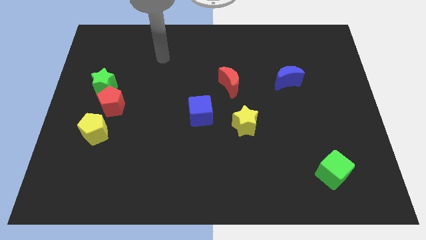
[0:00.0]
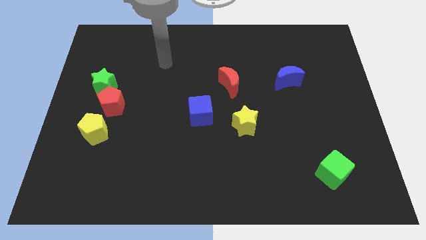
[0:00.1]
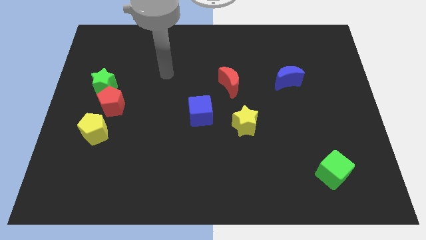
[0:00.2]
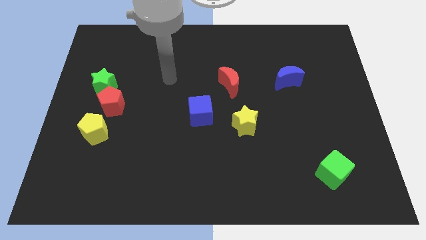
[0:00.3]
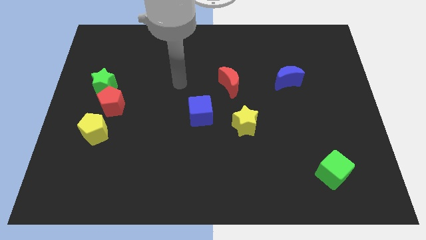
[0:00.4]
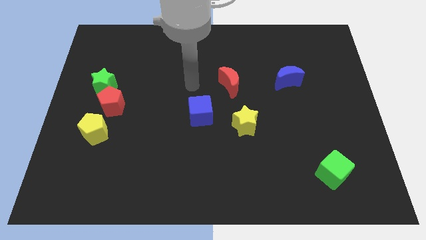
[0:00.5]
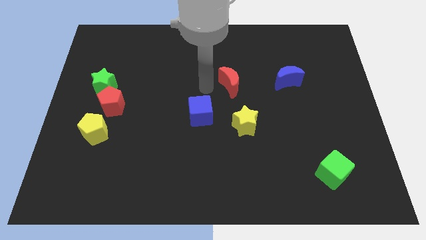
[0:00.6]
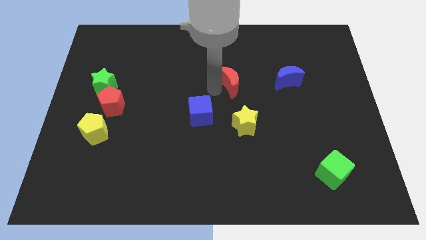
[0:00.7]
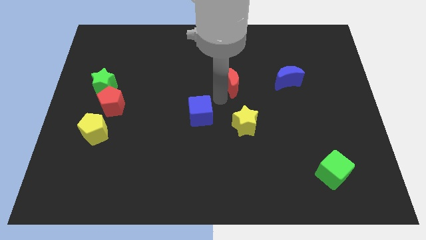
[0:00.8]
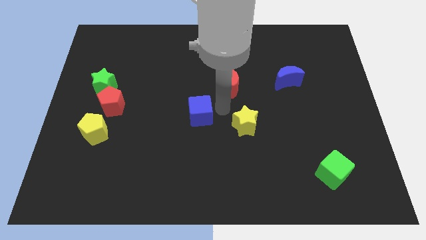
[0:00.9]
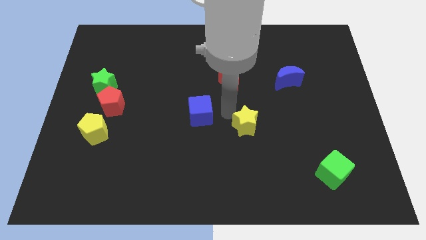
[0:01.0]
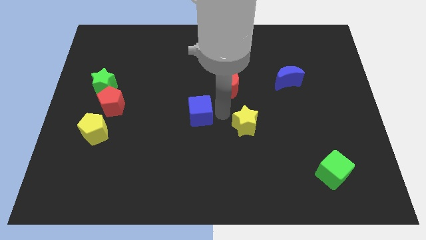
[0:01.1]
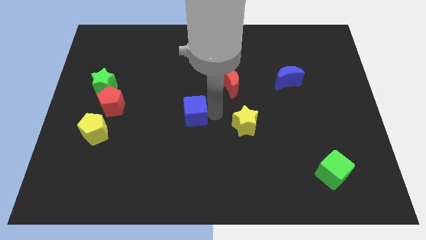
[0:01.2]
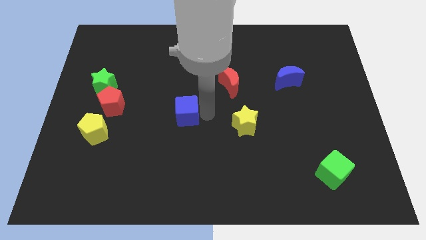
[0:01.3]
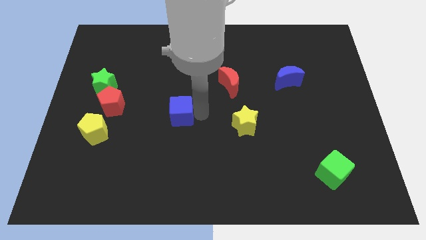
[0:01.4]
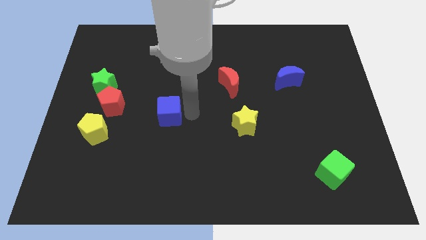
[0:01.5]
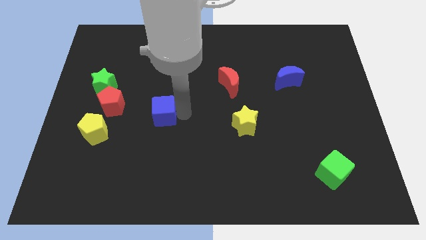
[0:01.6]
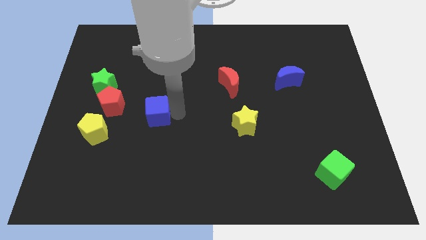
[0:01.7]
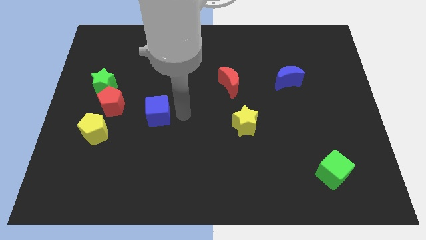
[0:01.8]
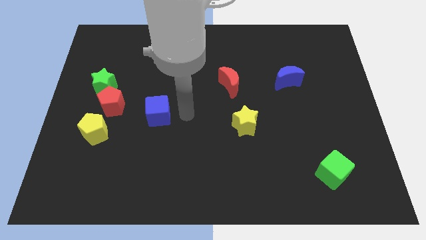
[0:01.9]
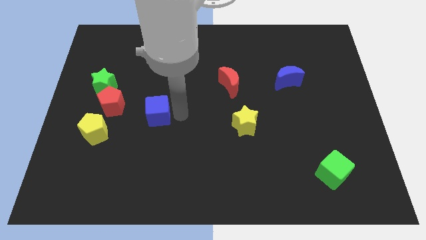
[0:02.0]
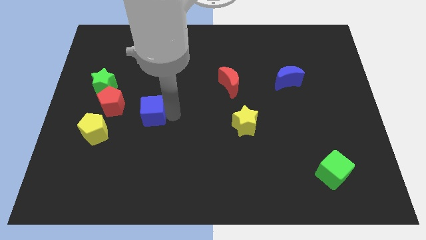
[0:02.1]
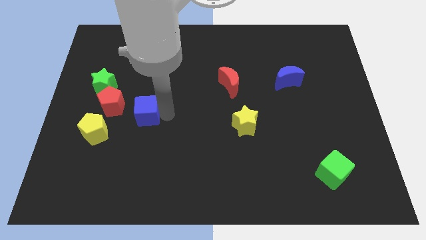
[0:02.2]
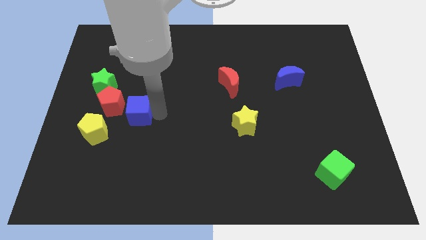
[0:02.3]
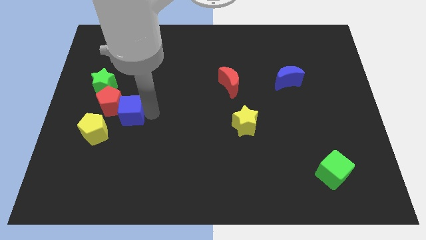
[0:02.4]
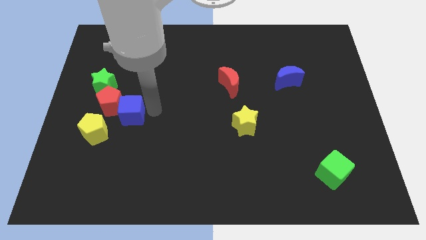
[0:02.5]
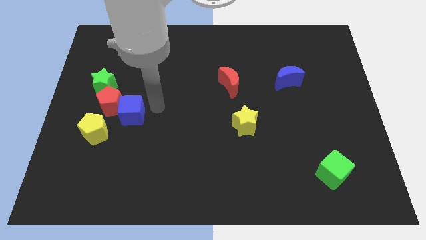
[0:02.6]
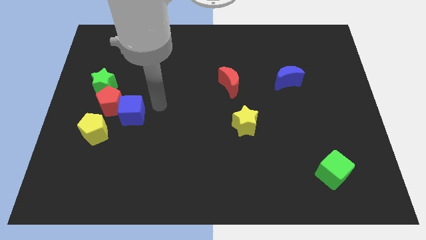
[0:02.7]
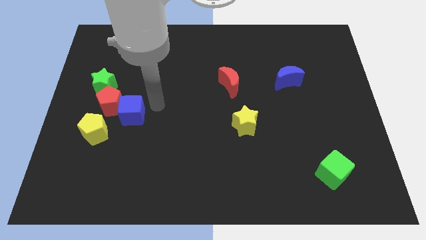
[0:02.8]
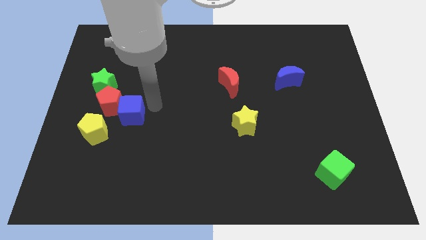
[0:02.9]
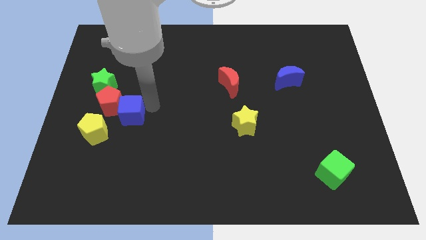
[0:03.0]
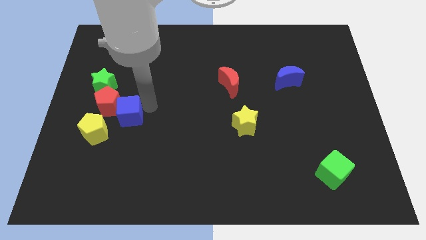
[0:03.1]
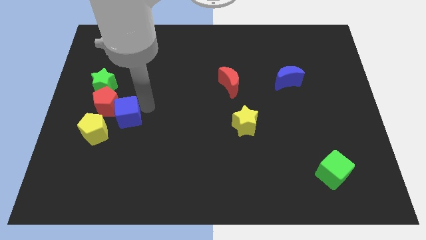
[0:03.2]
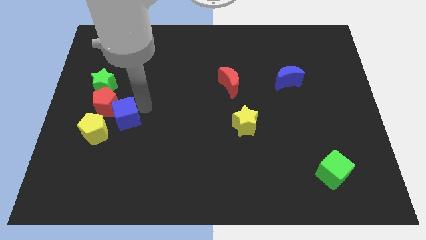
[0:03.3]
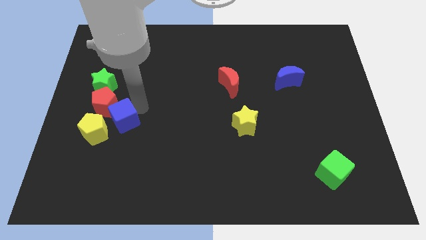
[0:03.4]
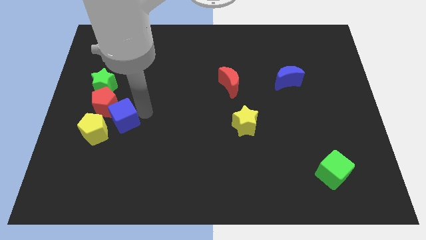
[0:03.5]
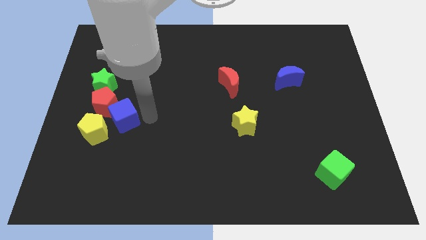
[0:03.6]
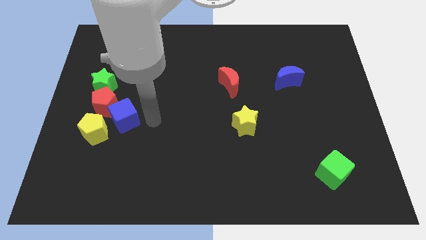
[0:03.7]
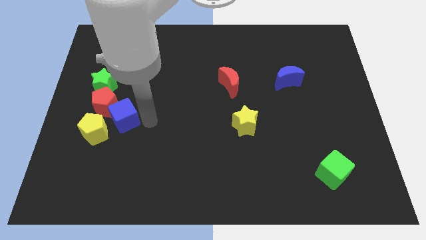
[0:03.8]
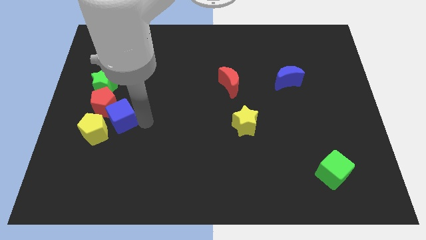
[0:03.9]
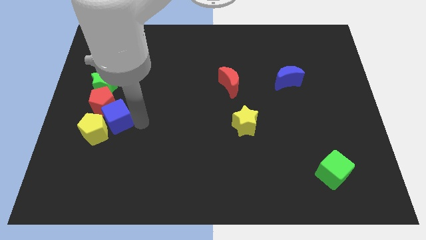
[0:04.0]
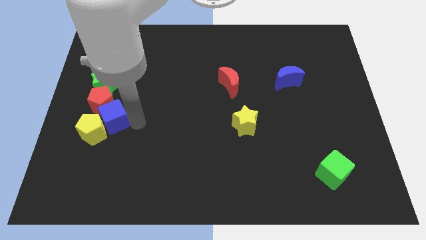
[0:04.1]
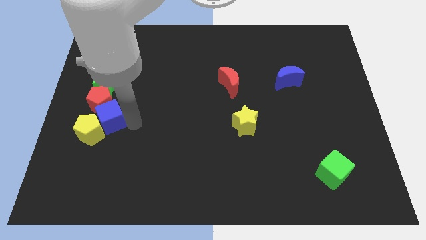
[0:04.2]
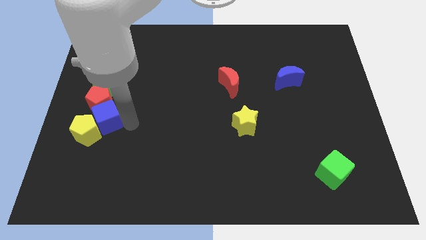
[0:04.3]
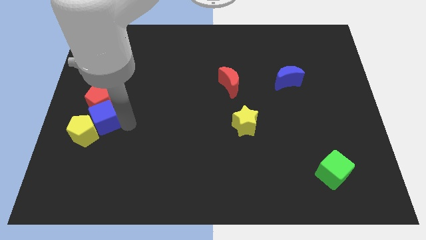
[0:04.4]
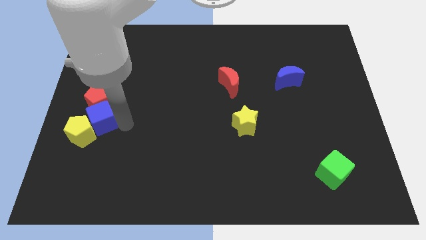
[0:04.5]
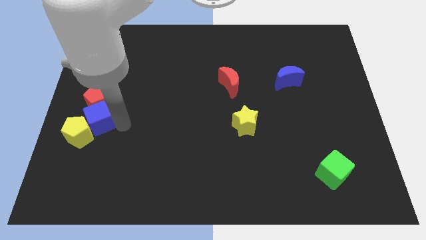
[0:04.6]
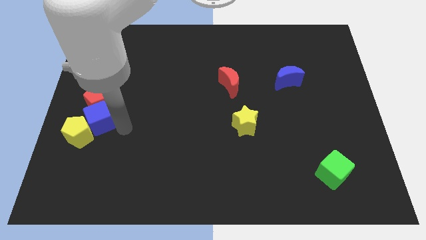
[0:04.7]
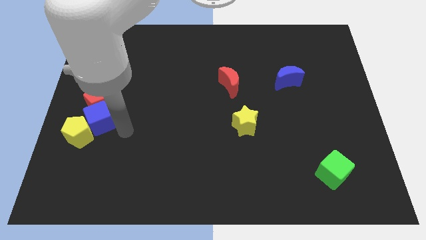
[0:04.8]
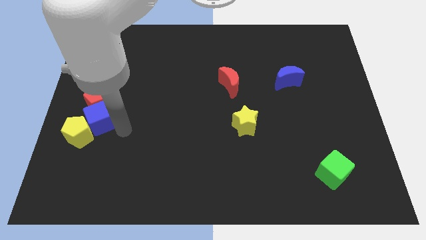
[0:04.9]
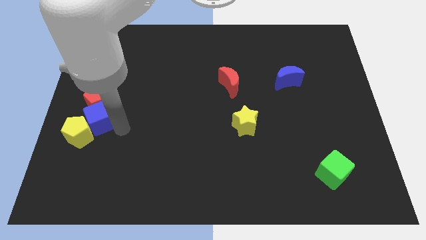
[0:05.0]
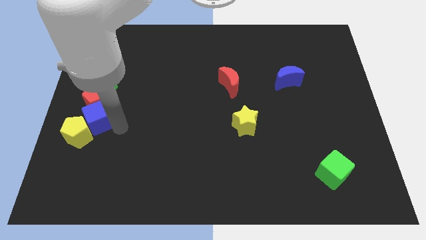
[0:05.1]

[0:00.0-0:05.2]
push the blue cube to the left side of the board

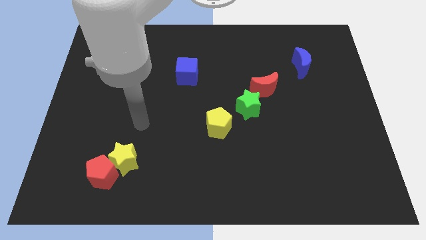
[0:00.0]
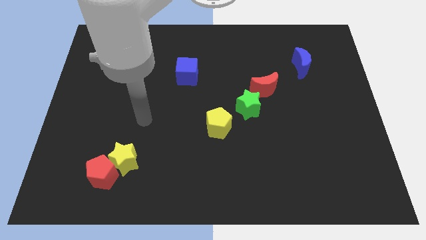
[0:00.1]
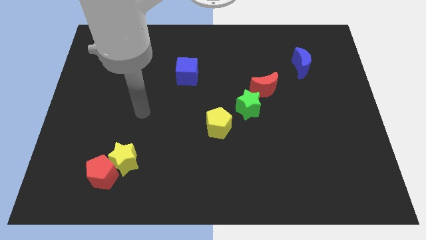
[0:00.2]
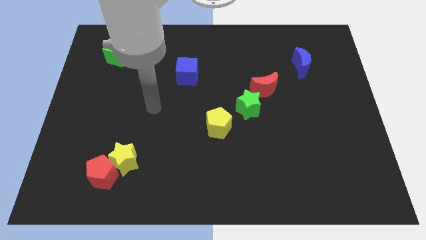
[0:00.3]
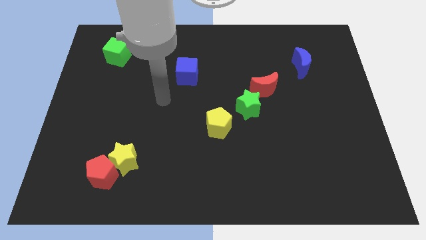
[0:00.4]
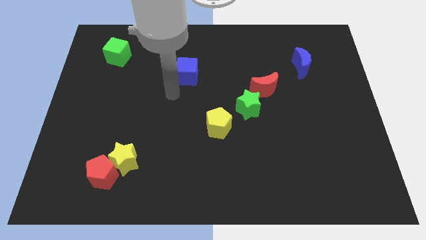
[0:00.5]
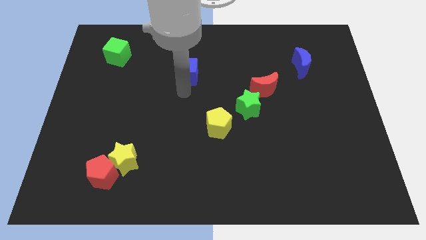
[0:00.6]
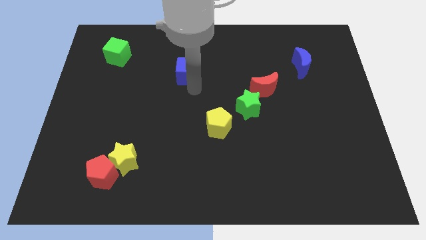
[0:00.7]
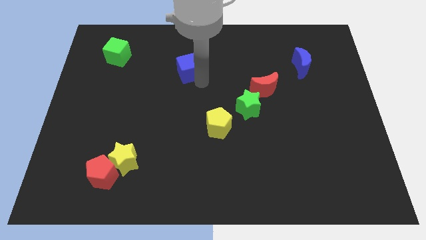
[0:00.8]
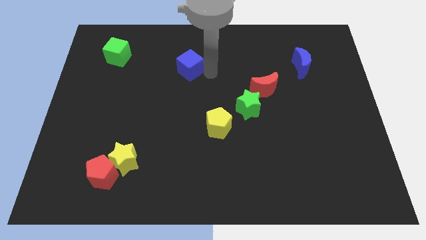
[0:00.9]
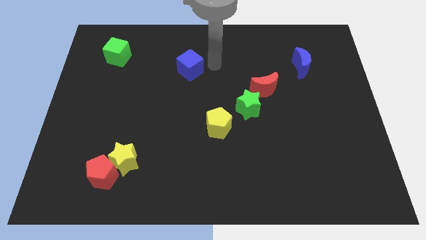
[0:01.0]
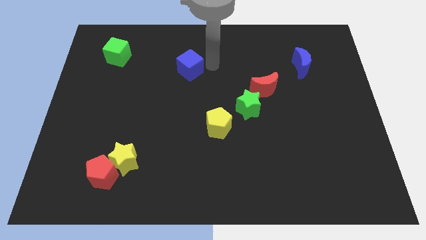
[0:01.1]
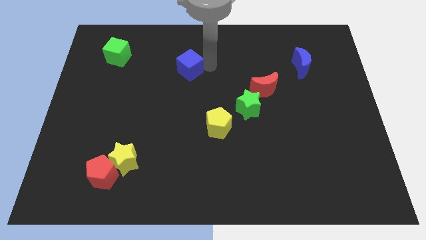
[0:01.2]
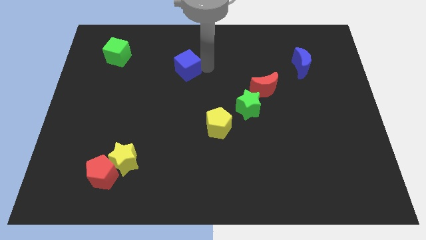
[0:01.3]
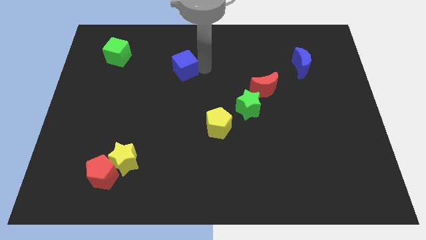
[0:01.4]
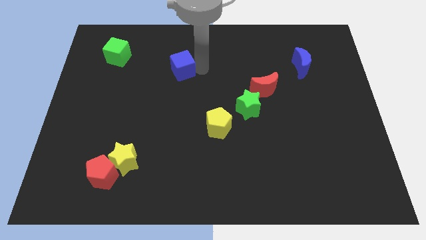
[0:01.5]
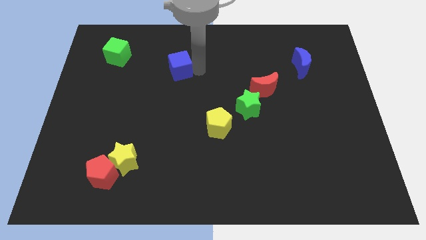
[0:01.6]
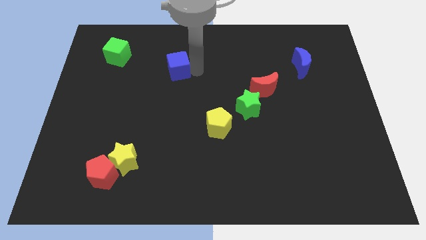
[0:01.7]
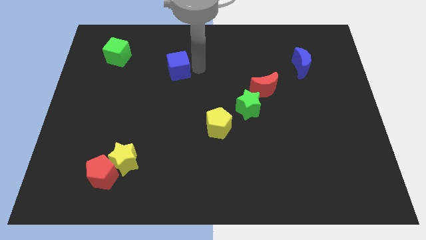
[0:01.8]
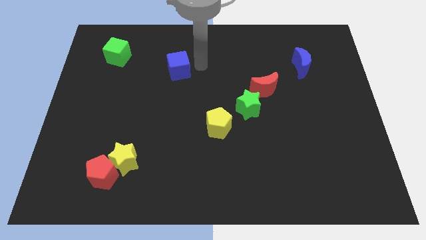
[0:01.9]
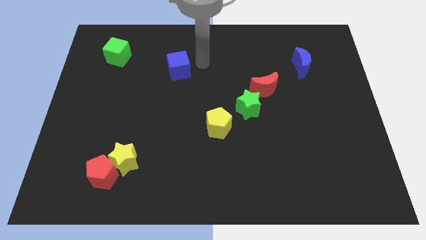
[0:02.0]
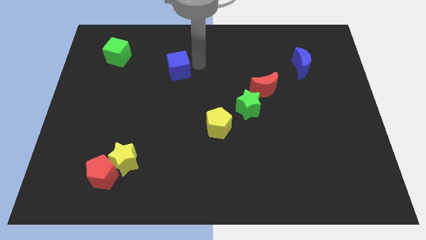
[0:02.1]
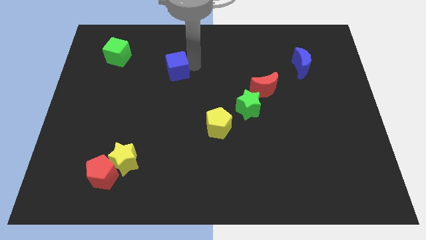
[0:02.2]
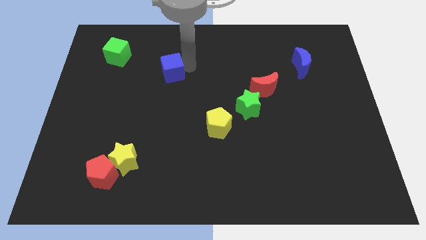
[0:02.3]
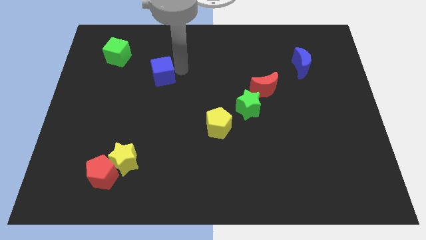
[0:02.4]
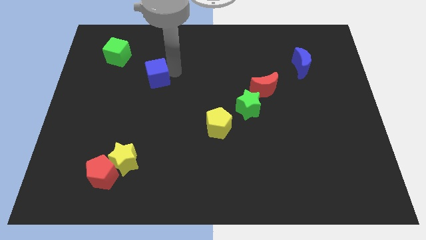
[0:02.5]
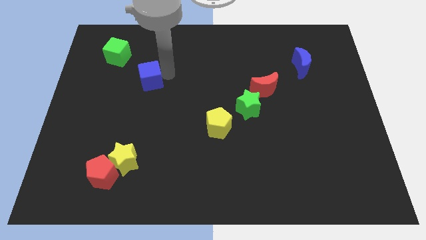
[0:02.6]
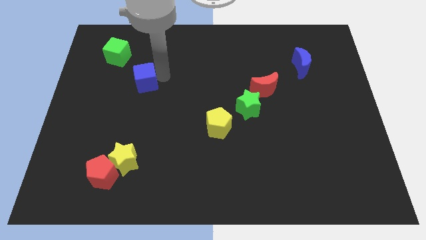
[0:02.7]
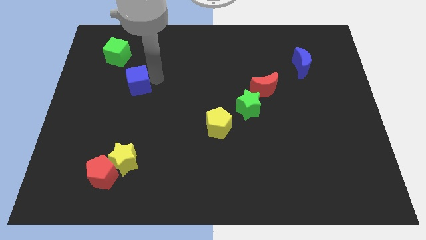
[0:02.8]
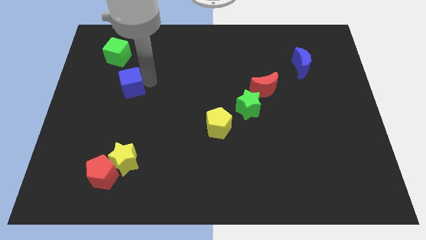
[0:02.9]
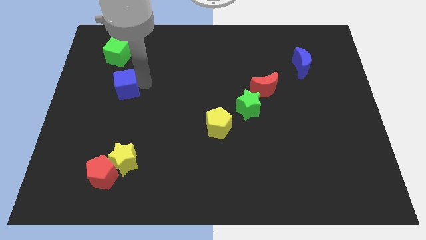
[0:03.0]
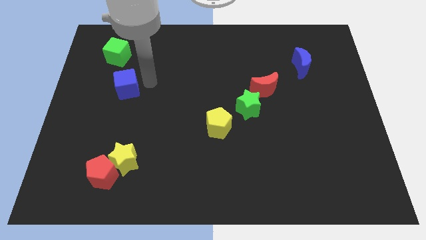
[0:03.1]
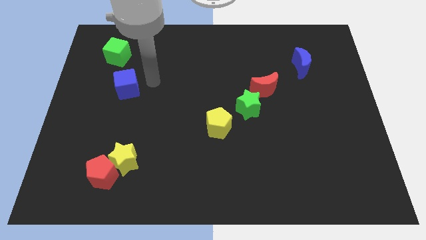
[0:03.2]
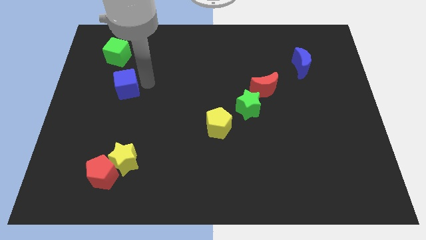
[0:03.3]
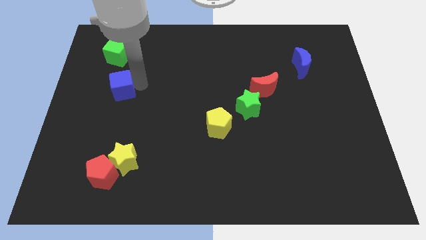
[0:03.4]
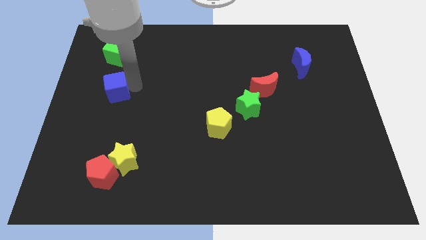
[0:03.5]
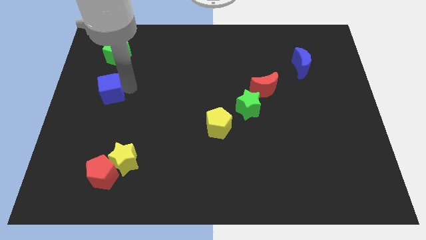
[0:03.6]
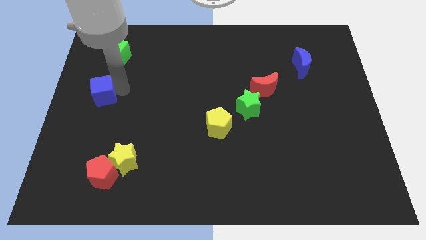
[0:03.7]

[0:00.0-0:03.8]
put the blue cube to the left side of the board
